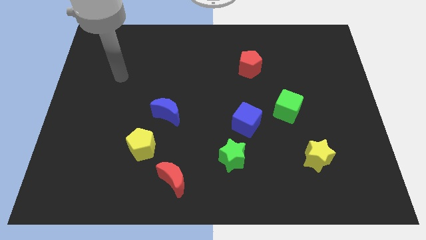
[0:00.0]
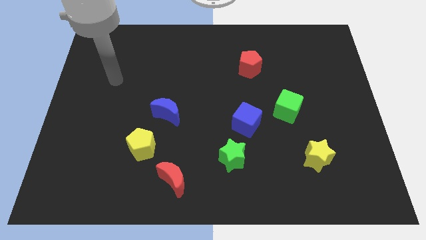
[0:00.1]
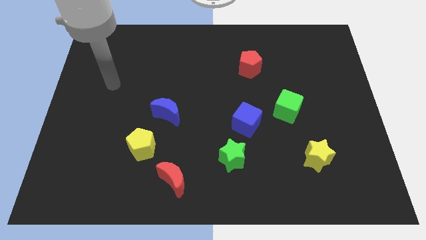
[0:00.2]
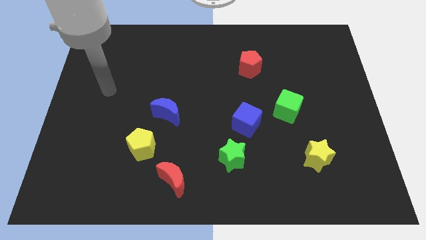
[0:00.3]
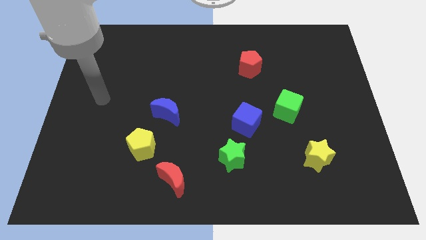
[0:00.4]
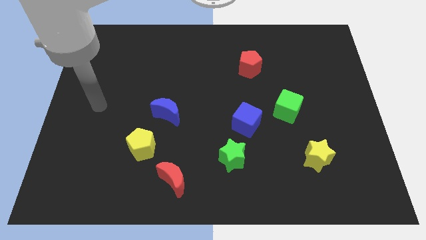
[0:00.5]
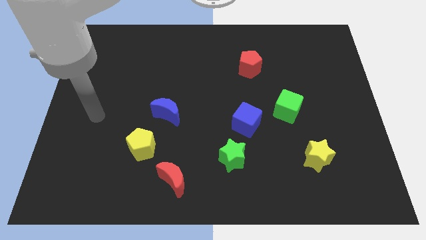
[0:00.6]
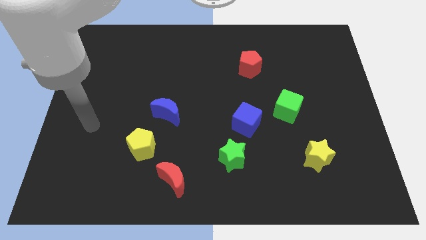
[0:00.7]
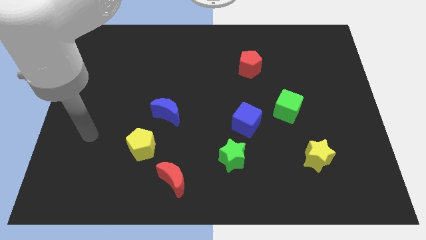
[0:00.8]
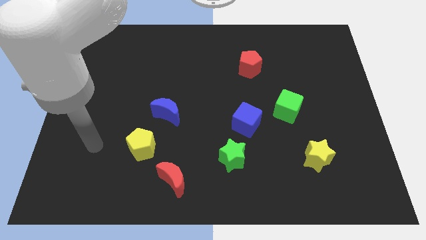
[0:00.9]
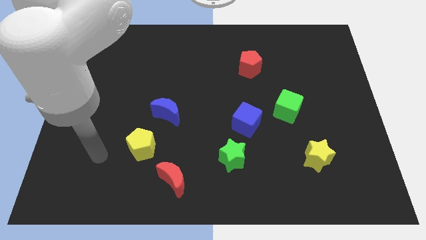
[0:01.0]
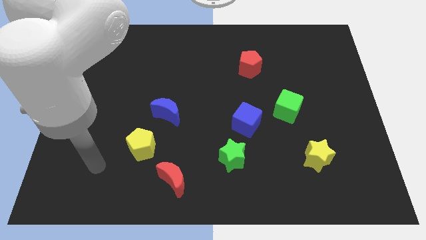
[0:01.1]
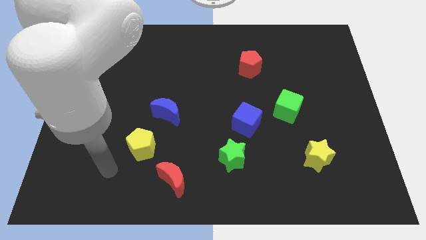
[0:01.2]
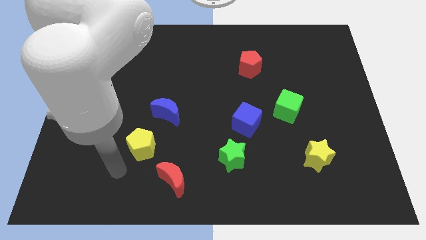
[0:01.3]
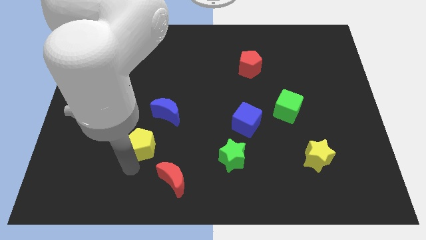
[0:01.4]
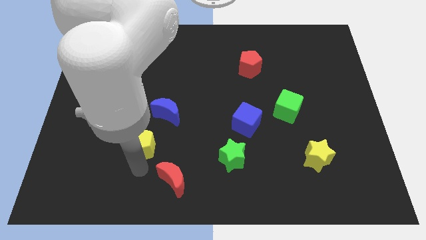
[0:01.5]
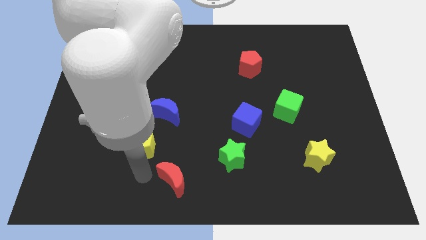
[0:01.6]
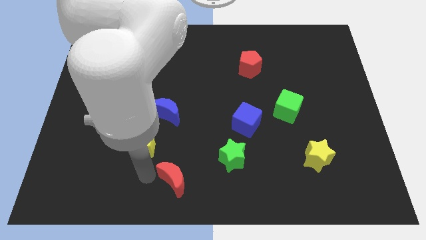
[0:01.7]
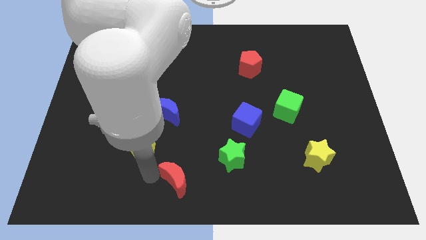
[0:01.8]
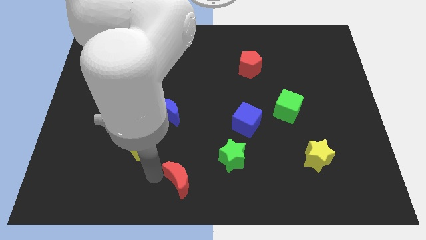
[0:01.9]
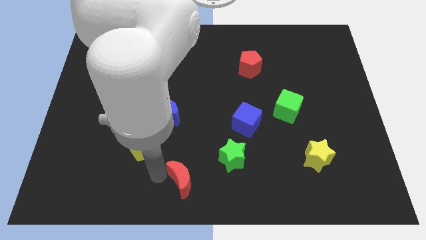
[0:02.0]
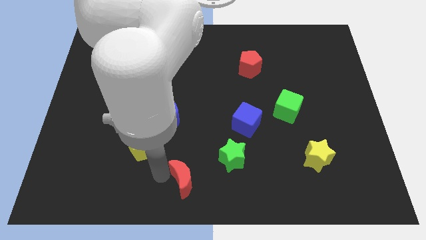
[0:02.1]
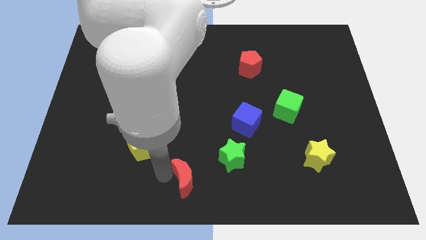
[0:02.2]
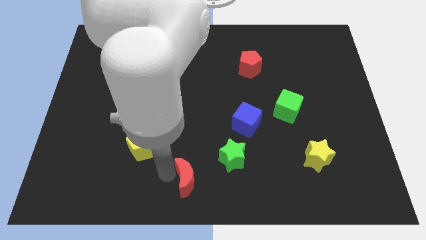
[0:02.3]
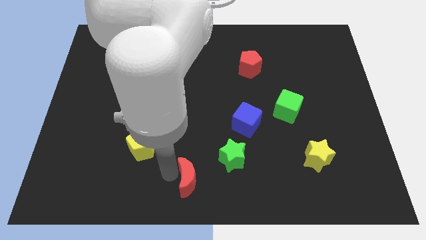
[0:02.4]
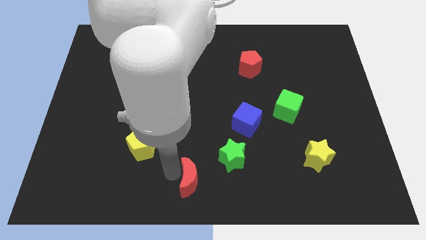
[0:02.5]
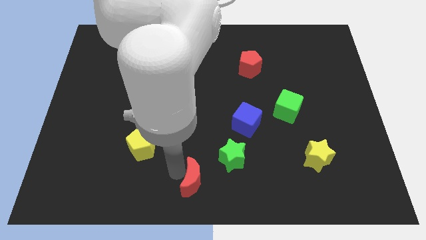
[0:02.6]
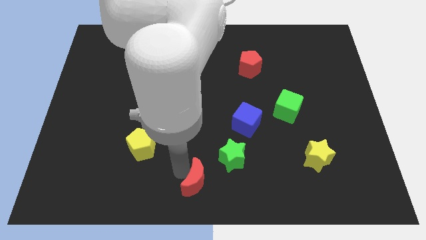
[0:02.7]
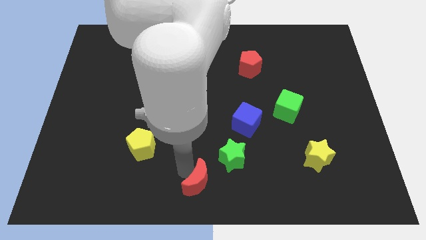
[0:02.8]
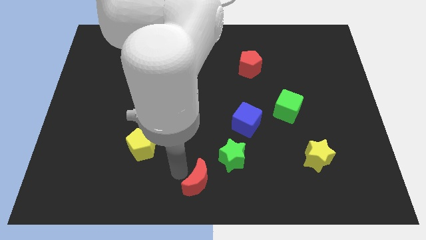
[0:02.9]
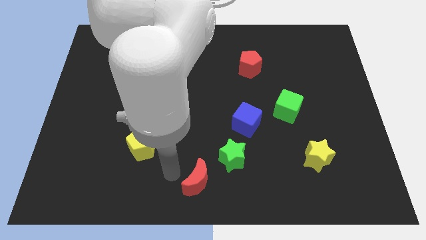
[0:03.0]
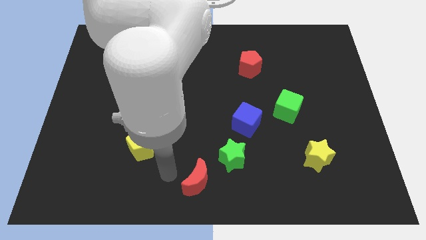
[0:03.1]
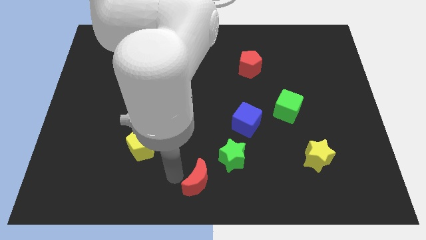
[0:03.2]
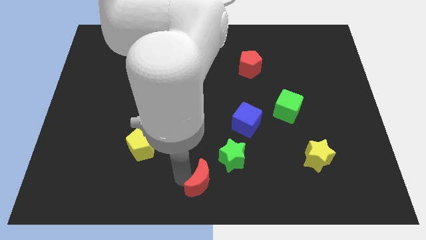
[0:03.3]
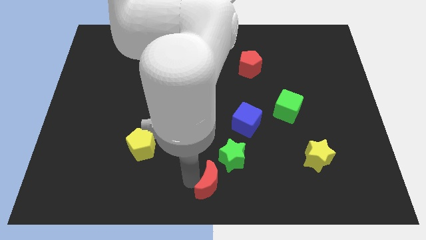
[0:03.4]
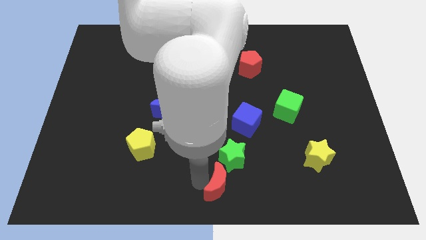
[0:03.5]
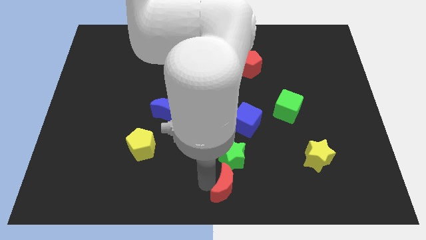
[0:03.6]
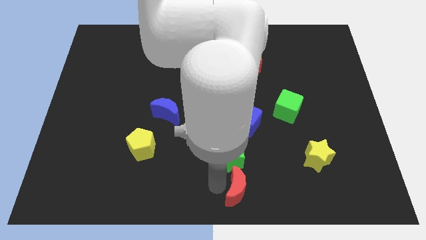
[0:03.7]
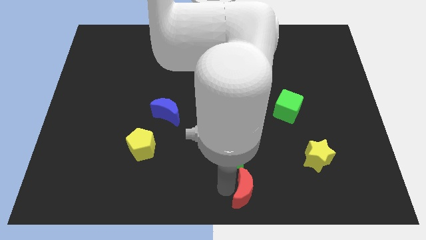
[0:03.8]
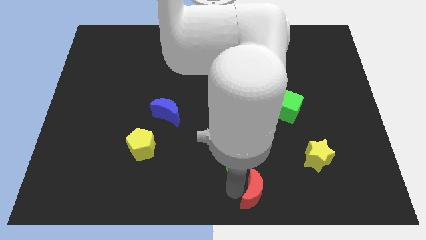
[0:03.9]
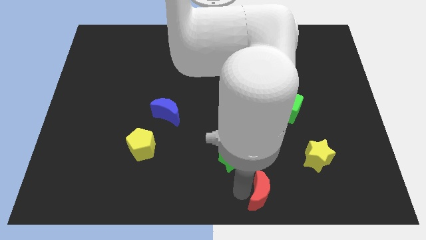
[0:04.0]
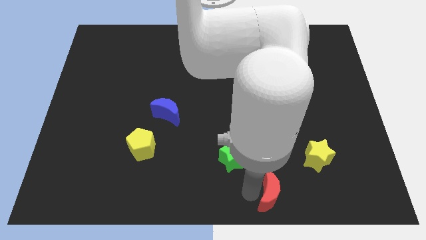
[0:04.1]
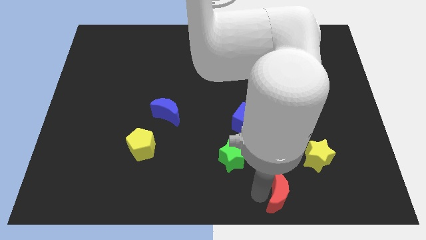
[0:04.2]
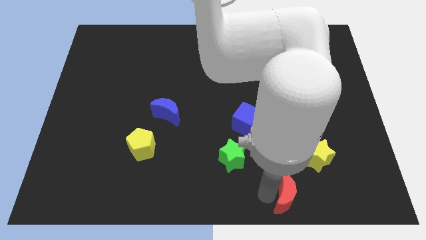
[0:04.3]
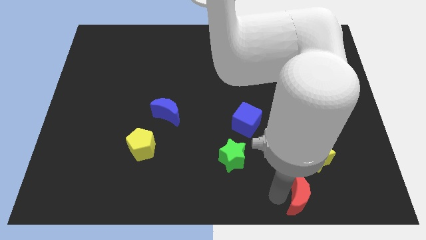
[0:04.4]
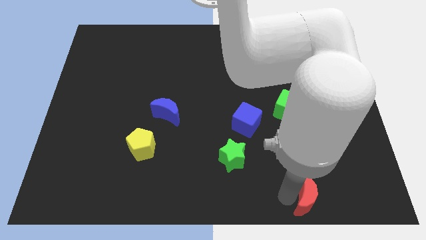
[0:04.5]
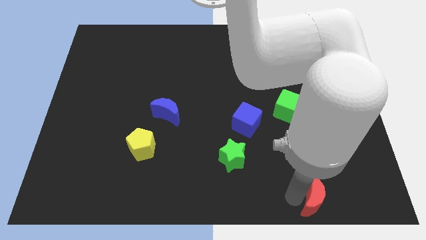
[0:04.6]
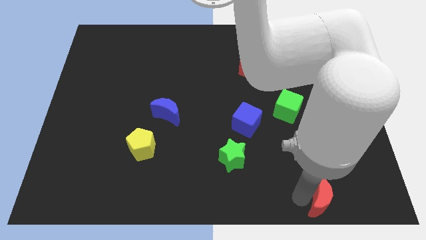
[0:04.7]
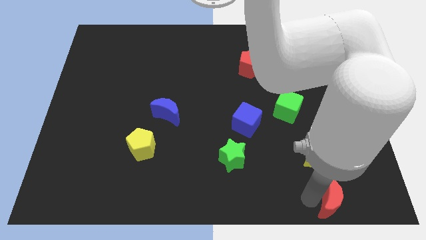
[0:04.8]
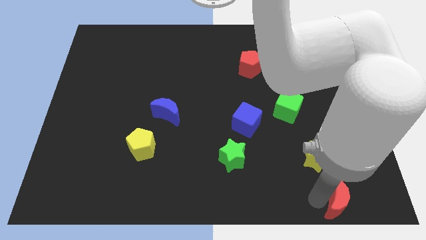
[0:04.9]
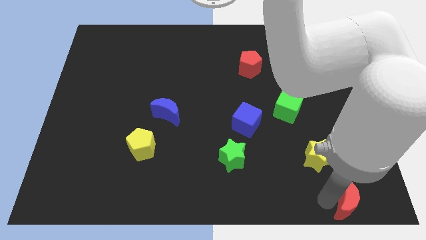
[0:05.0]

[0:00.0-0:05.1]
slide the red moon to the bottom right

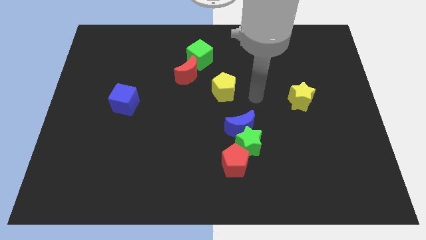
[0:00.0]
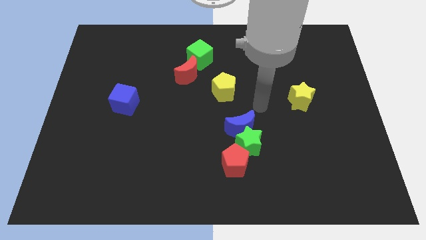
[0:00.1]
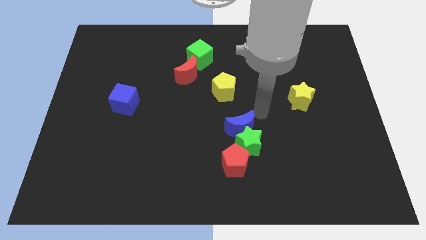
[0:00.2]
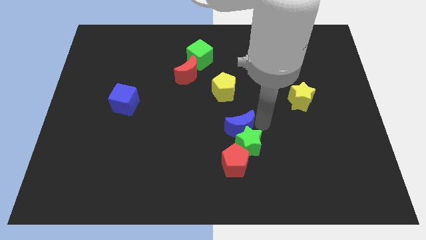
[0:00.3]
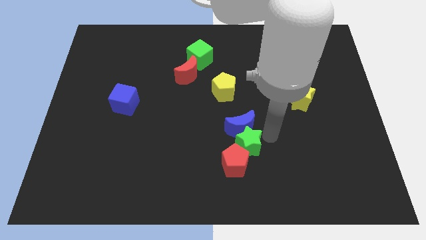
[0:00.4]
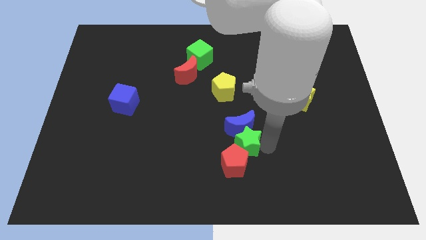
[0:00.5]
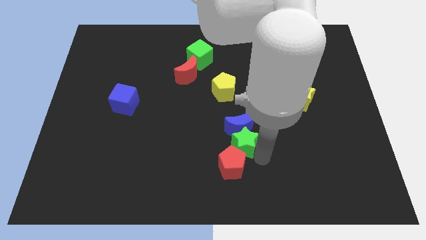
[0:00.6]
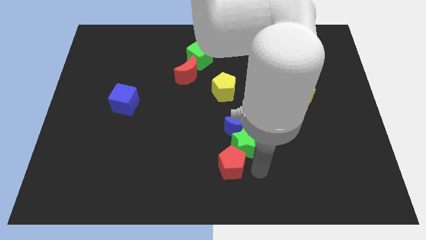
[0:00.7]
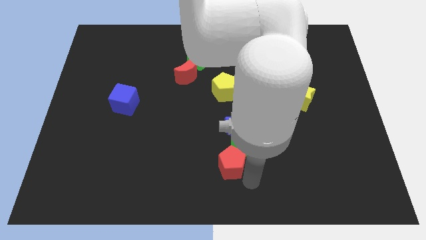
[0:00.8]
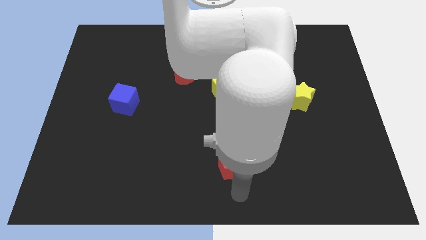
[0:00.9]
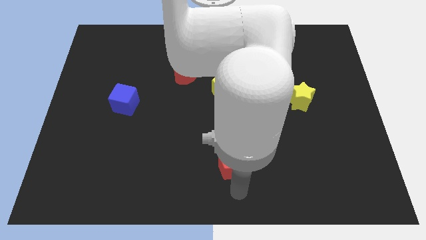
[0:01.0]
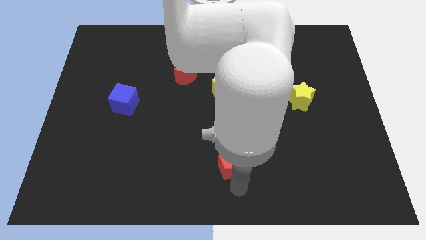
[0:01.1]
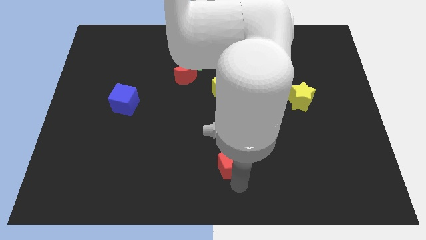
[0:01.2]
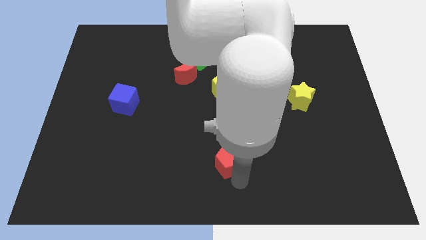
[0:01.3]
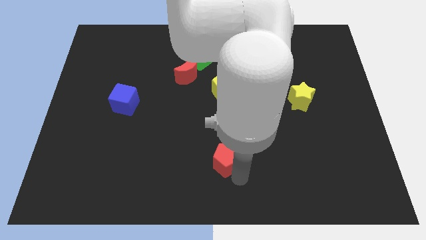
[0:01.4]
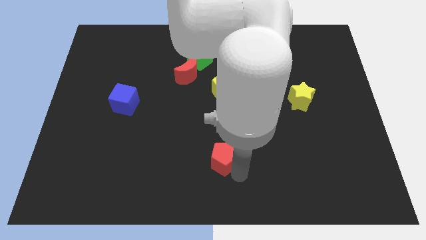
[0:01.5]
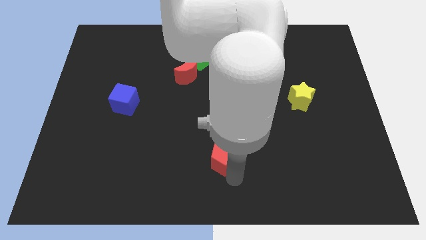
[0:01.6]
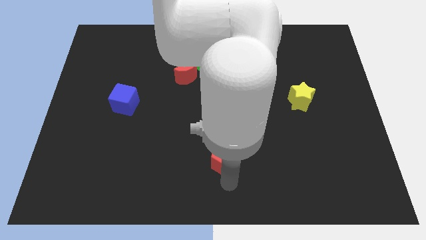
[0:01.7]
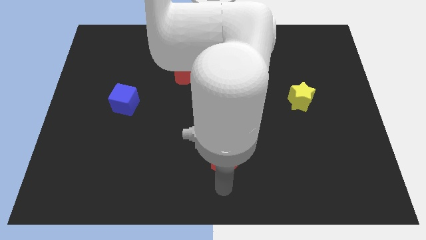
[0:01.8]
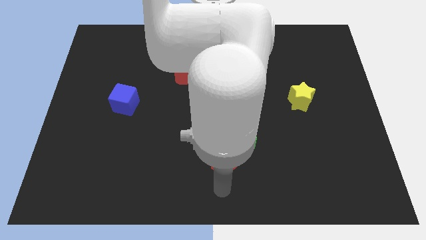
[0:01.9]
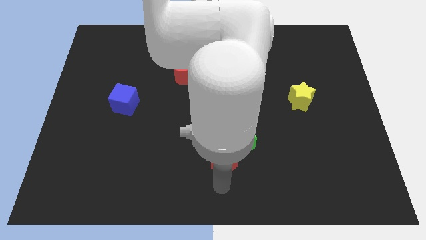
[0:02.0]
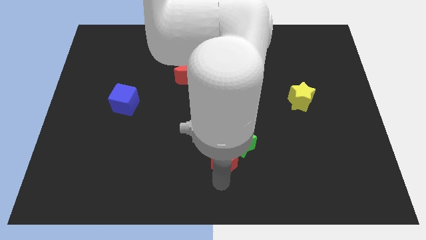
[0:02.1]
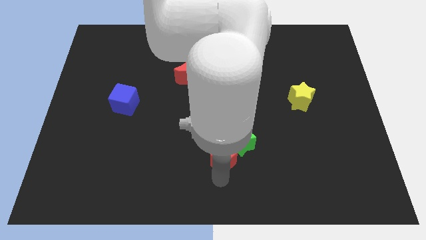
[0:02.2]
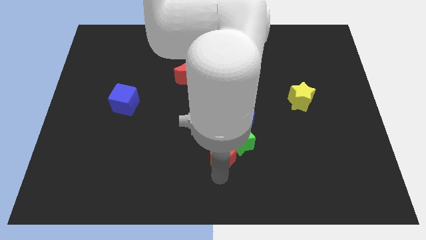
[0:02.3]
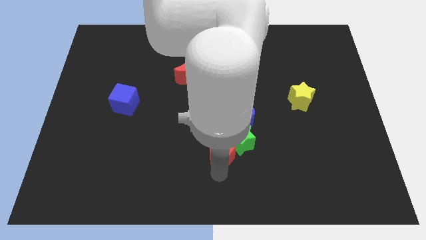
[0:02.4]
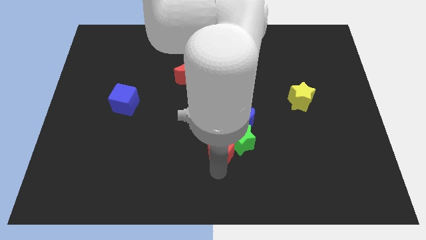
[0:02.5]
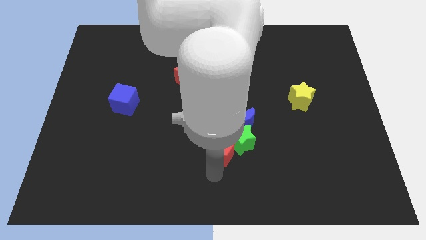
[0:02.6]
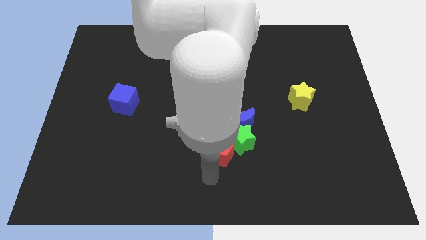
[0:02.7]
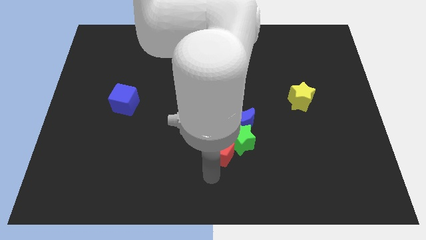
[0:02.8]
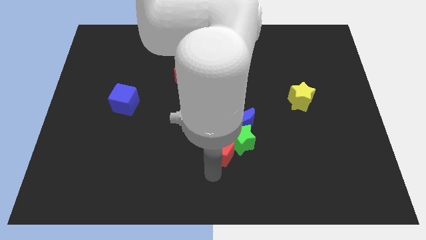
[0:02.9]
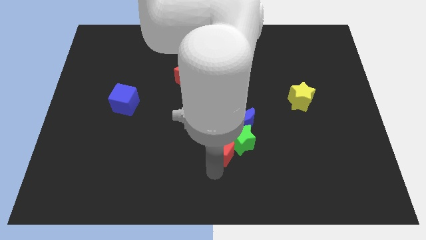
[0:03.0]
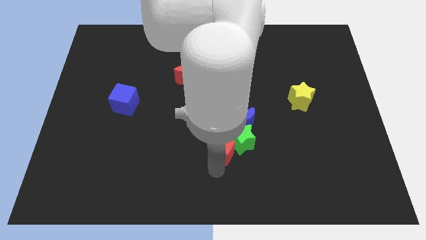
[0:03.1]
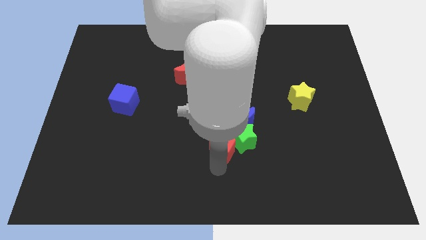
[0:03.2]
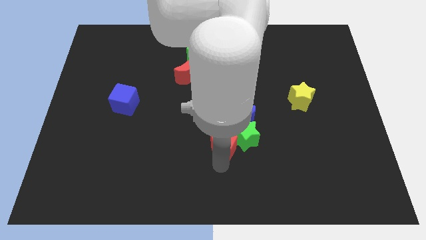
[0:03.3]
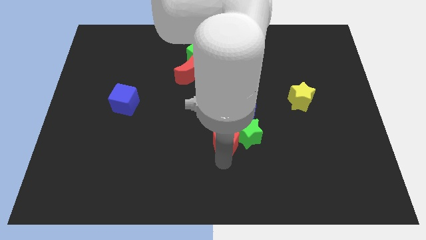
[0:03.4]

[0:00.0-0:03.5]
slide the red pentagon to the middle of the board
